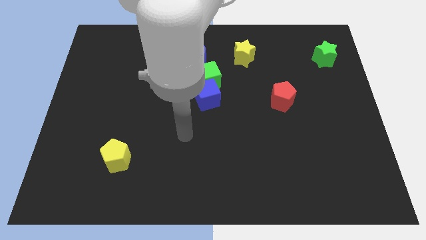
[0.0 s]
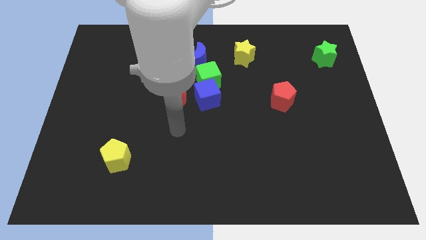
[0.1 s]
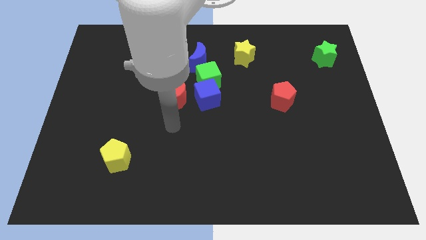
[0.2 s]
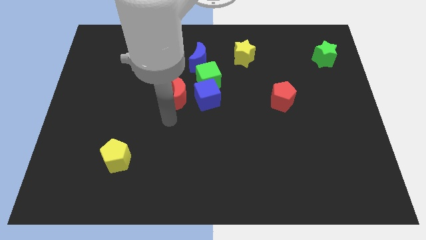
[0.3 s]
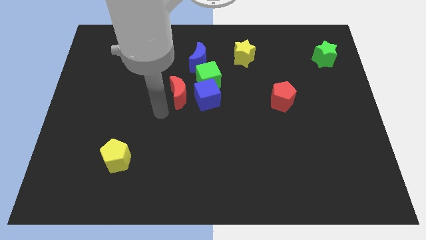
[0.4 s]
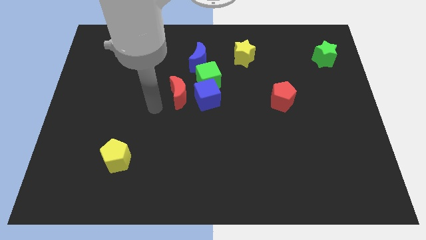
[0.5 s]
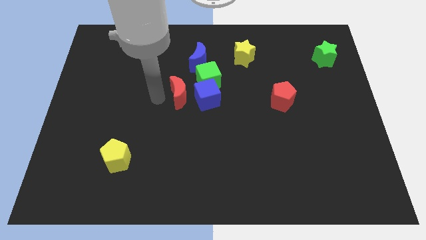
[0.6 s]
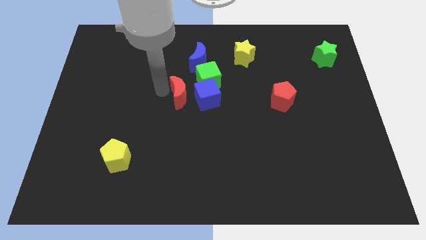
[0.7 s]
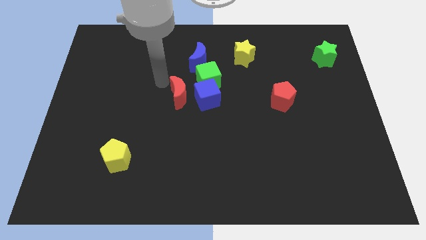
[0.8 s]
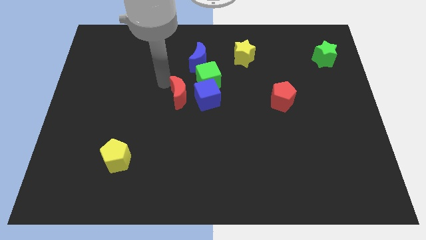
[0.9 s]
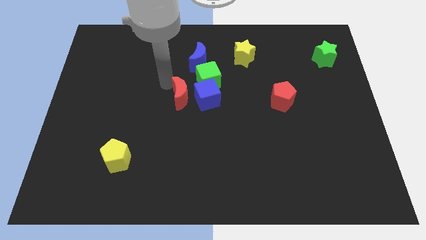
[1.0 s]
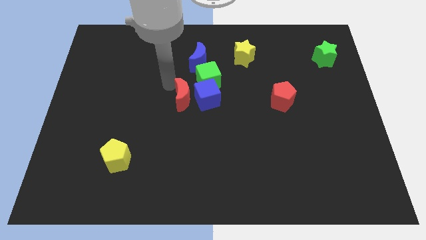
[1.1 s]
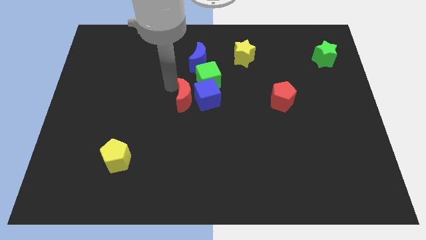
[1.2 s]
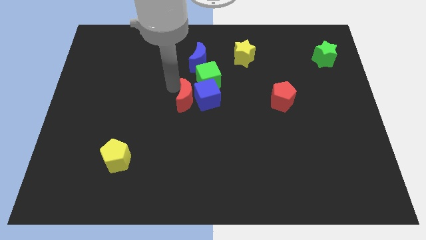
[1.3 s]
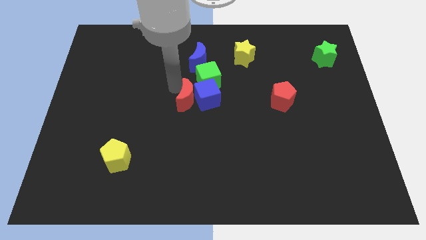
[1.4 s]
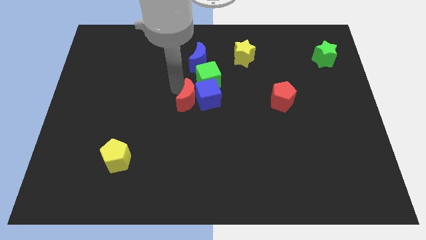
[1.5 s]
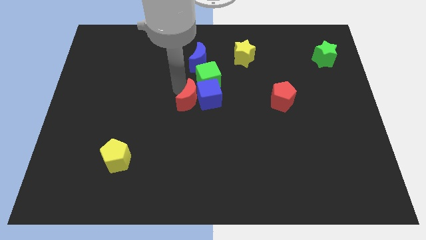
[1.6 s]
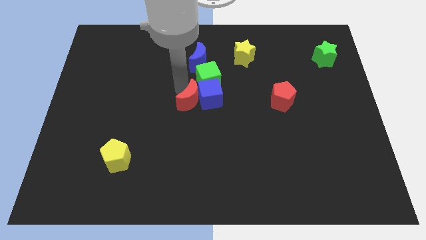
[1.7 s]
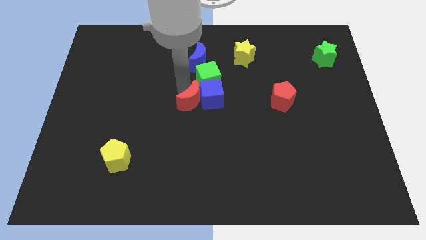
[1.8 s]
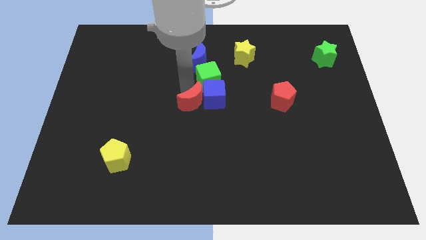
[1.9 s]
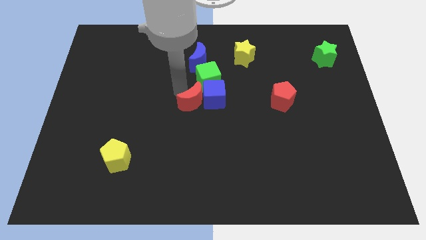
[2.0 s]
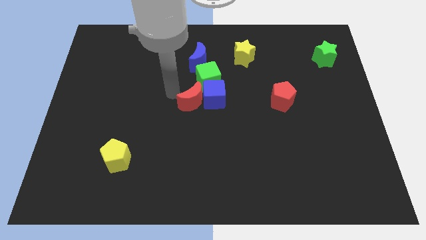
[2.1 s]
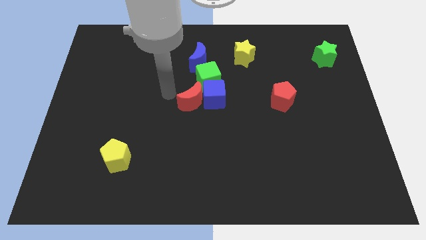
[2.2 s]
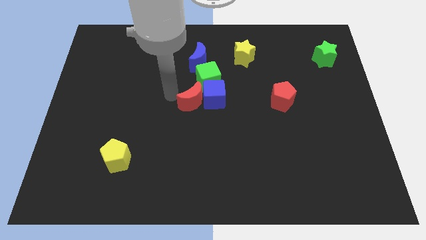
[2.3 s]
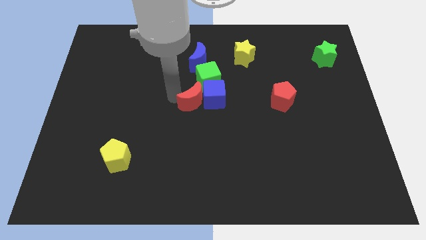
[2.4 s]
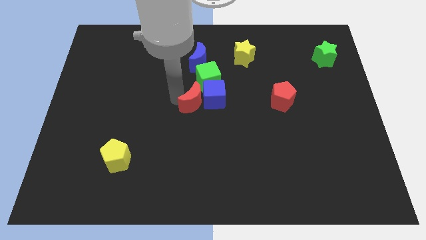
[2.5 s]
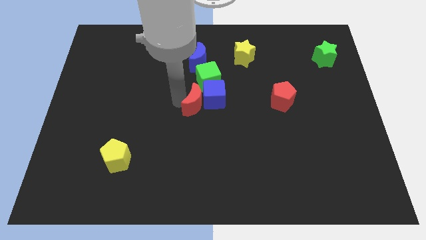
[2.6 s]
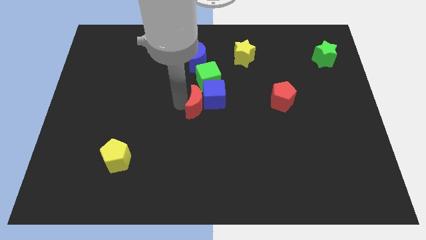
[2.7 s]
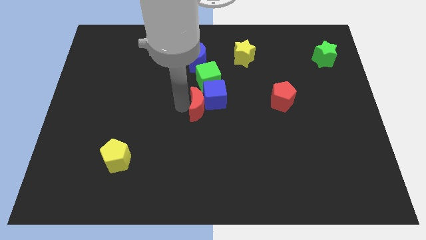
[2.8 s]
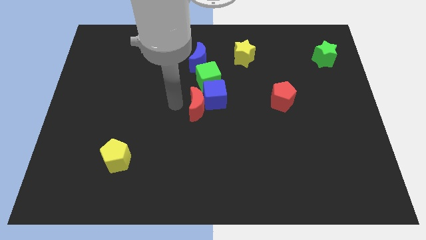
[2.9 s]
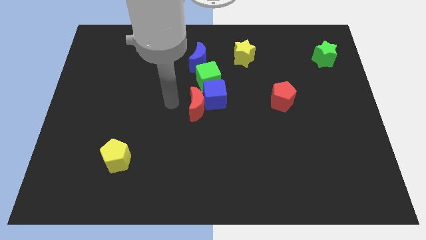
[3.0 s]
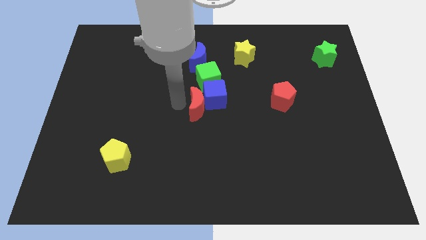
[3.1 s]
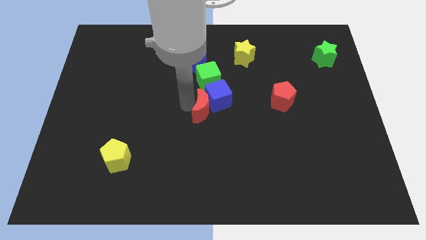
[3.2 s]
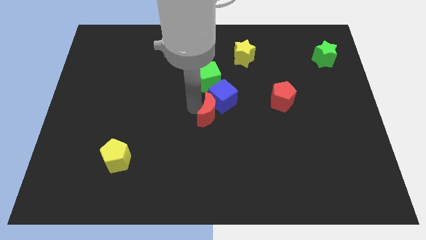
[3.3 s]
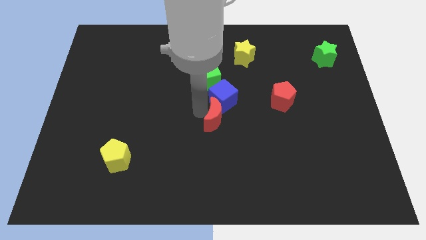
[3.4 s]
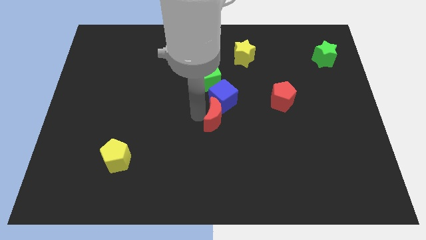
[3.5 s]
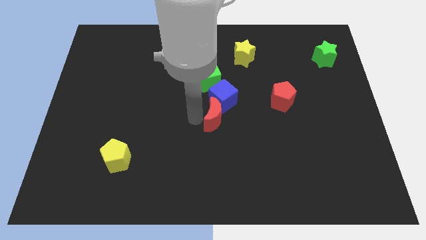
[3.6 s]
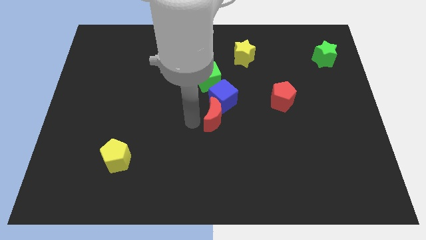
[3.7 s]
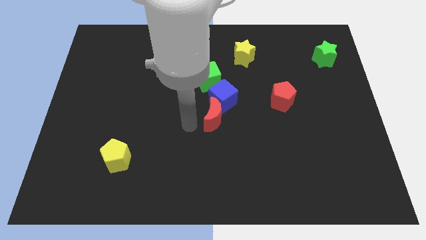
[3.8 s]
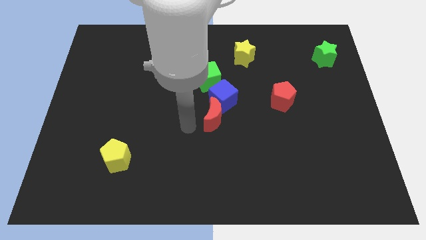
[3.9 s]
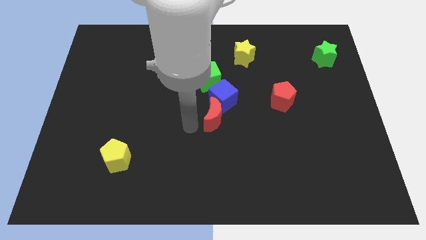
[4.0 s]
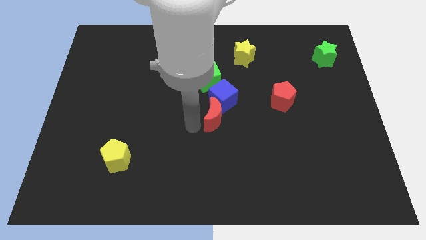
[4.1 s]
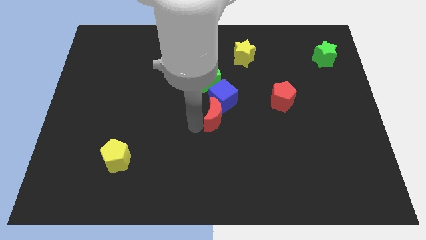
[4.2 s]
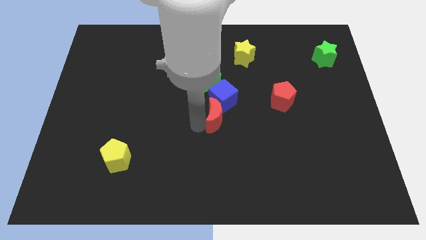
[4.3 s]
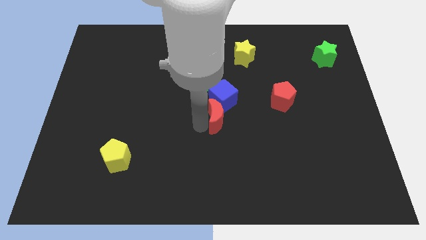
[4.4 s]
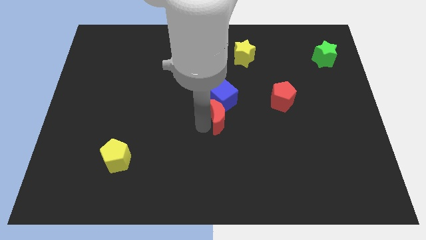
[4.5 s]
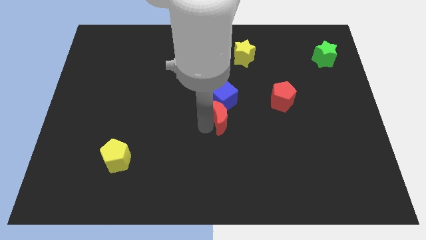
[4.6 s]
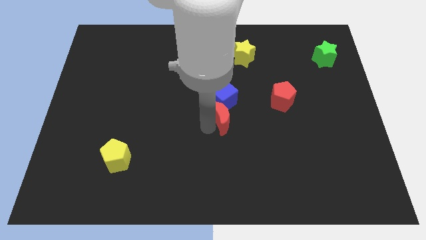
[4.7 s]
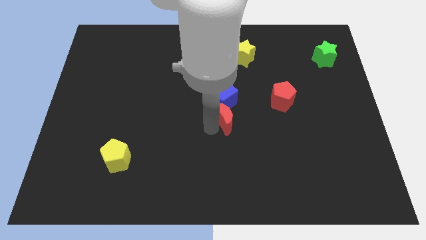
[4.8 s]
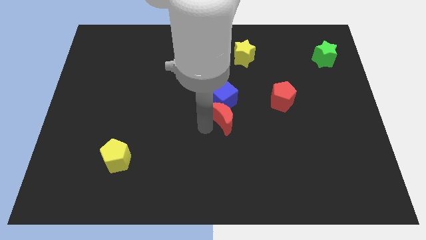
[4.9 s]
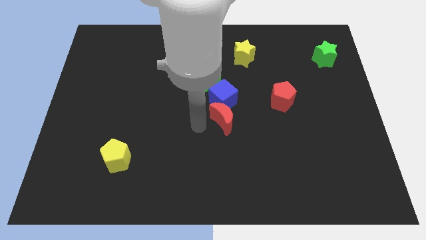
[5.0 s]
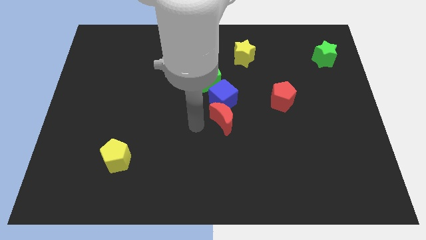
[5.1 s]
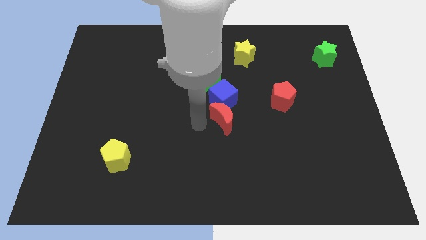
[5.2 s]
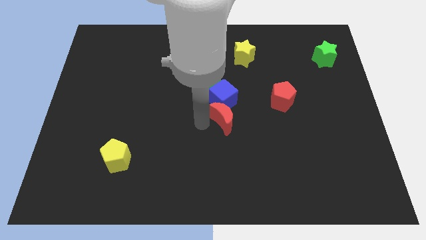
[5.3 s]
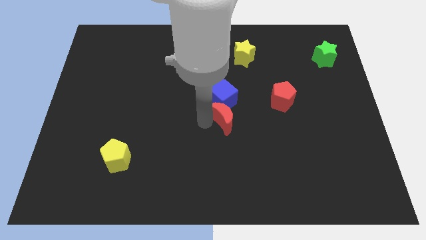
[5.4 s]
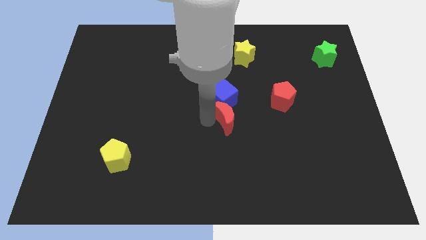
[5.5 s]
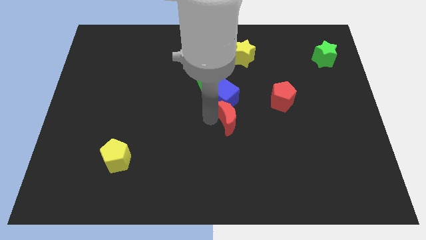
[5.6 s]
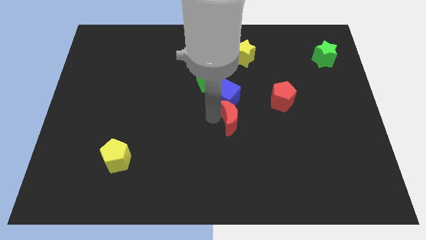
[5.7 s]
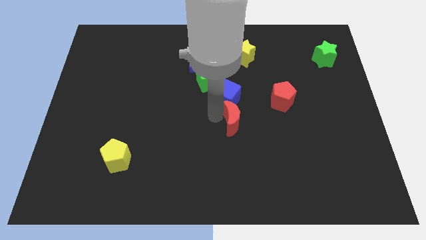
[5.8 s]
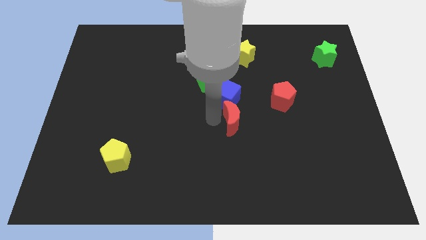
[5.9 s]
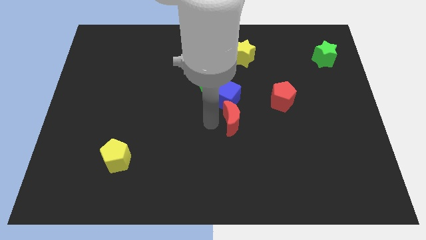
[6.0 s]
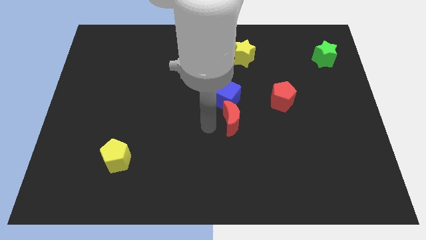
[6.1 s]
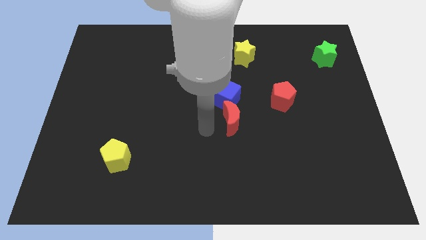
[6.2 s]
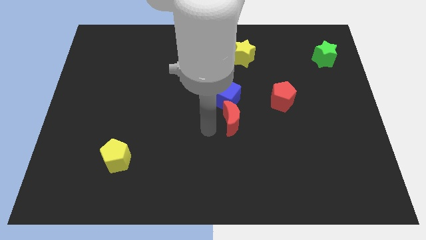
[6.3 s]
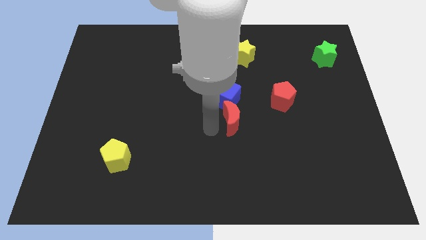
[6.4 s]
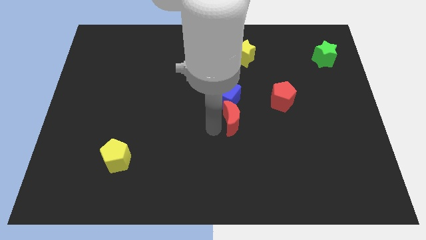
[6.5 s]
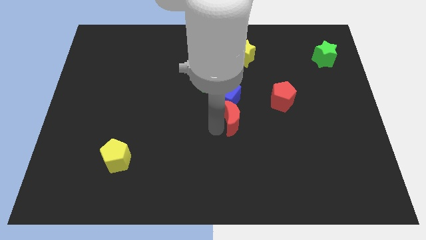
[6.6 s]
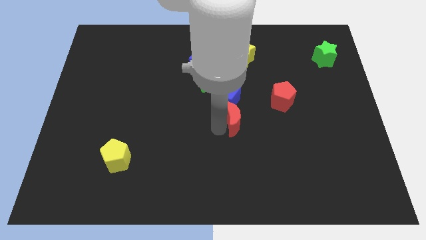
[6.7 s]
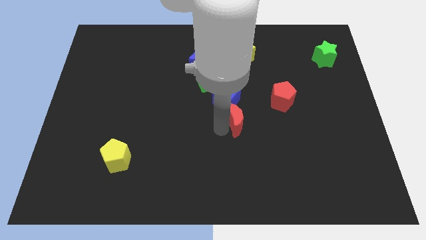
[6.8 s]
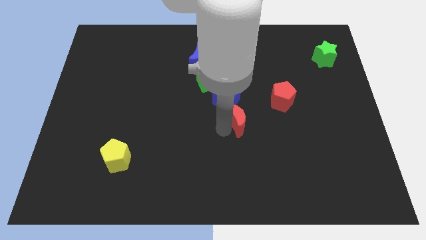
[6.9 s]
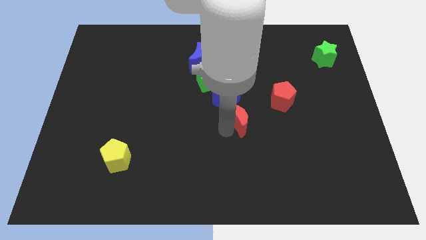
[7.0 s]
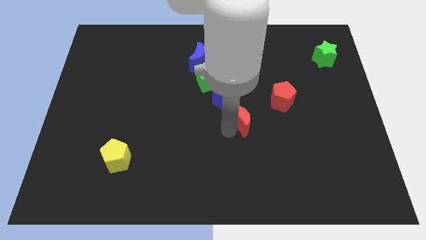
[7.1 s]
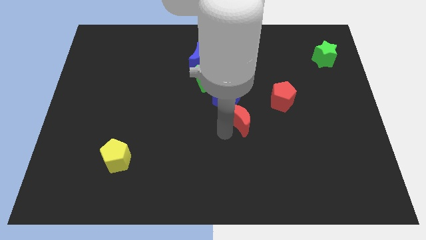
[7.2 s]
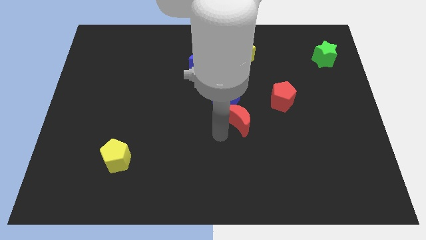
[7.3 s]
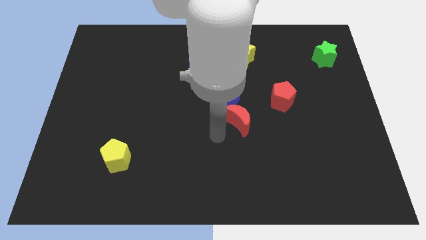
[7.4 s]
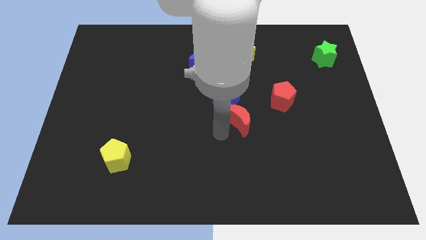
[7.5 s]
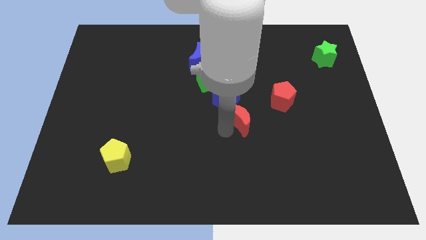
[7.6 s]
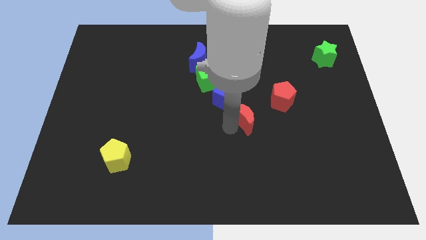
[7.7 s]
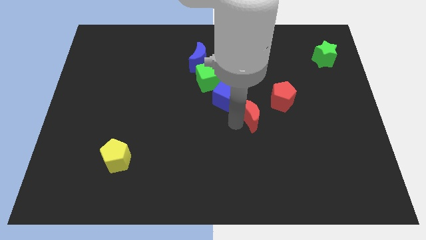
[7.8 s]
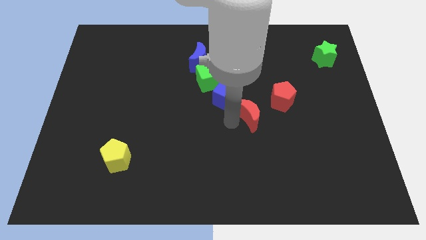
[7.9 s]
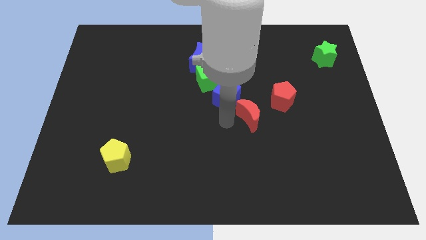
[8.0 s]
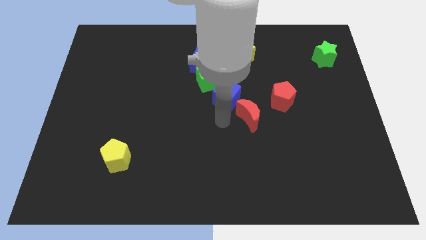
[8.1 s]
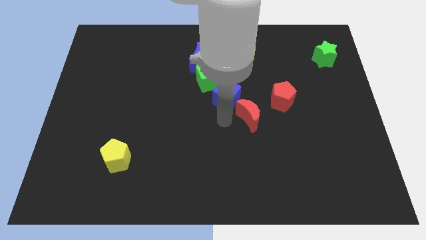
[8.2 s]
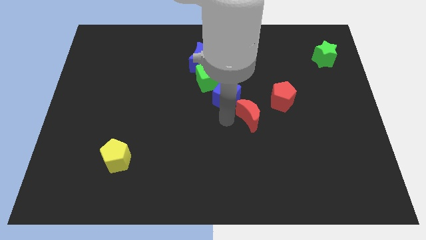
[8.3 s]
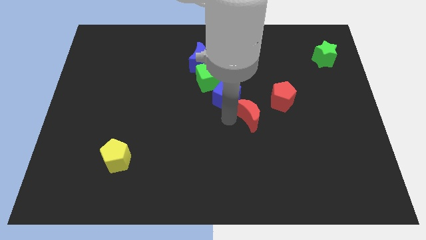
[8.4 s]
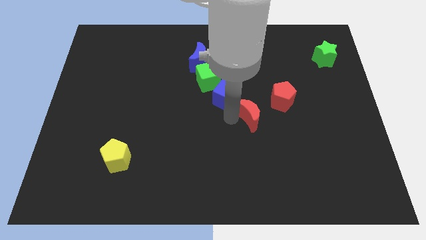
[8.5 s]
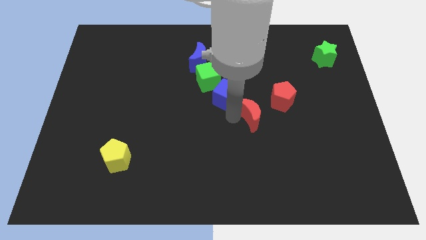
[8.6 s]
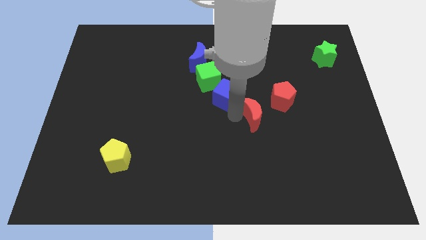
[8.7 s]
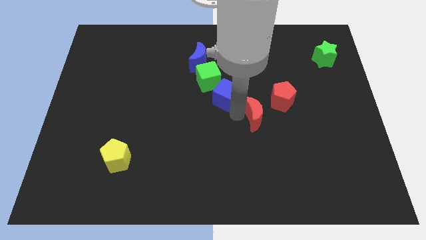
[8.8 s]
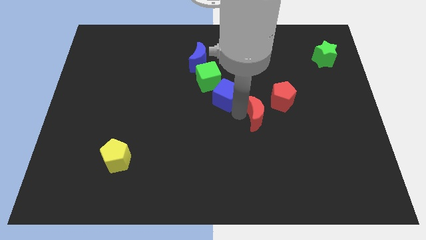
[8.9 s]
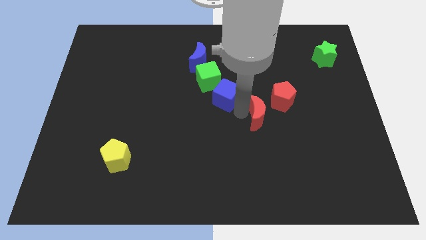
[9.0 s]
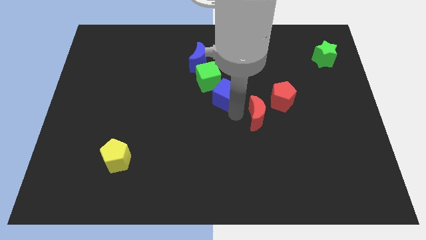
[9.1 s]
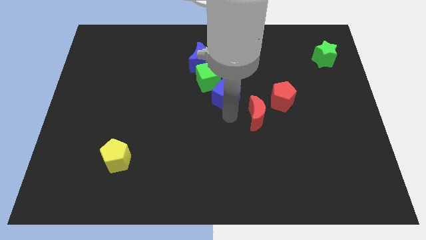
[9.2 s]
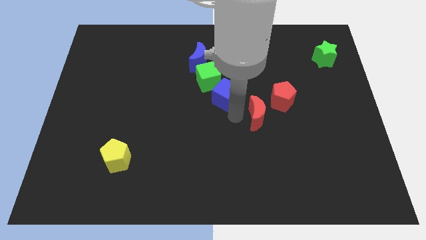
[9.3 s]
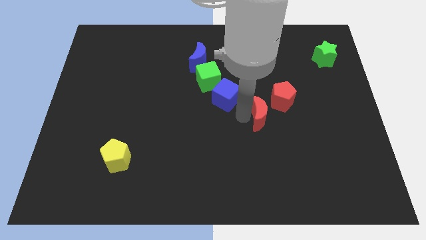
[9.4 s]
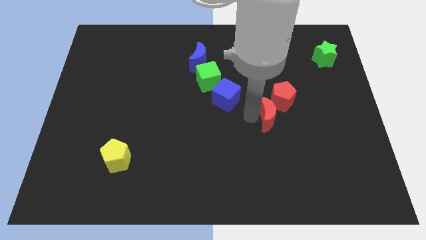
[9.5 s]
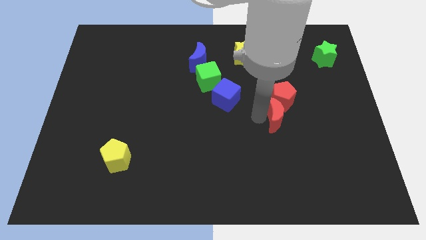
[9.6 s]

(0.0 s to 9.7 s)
push the red moon right
